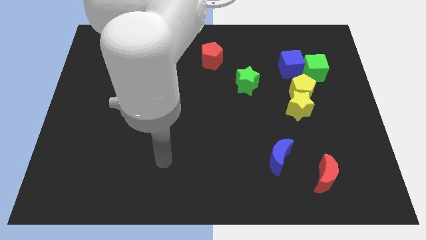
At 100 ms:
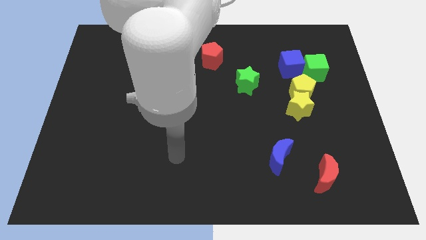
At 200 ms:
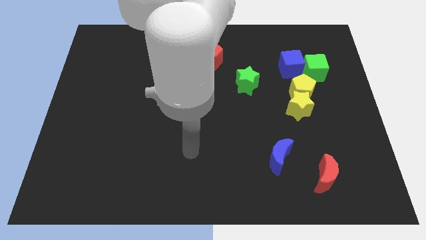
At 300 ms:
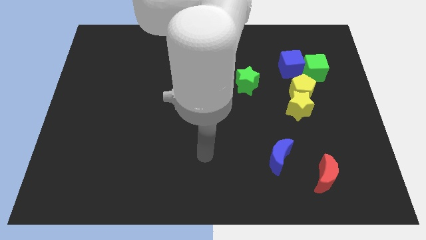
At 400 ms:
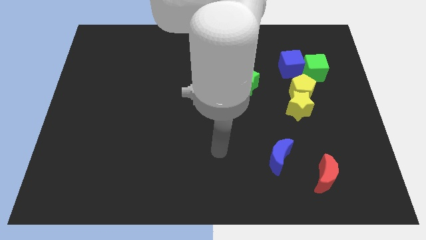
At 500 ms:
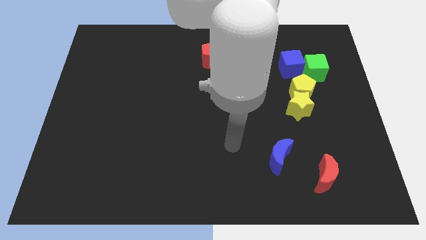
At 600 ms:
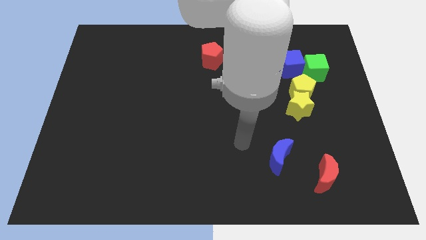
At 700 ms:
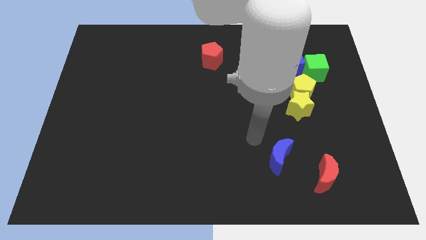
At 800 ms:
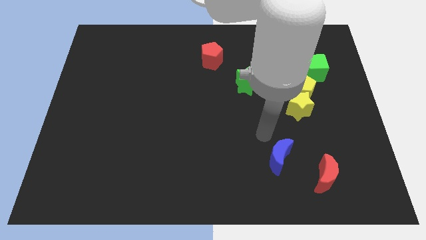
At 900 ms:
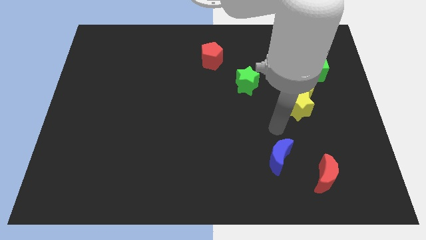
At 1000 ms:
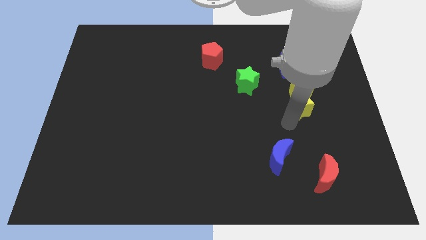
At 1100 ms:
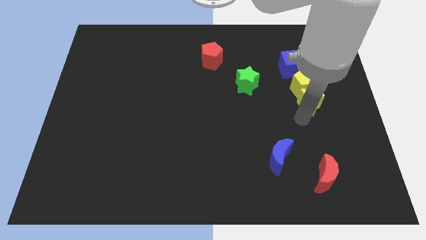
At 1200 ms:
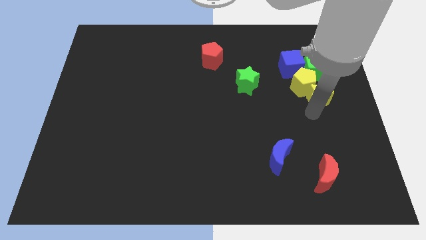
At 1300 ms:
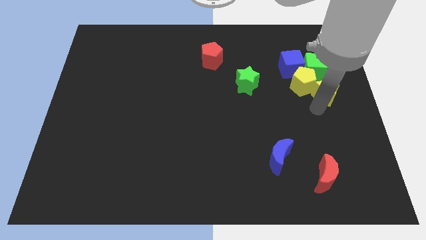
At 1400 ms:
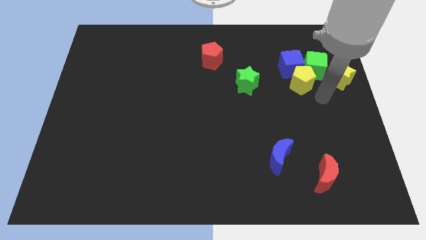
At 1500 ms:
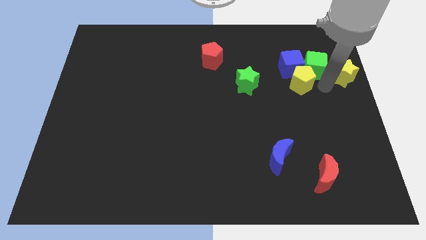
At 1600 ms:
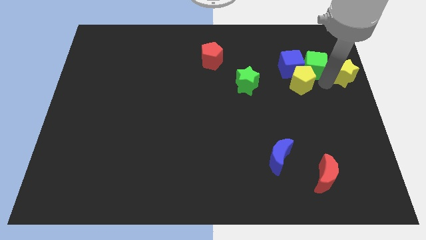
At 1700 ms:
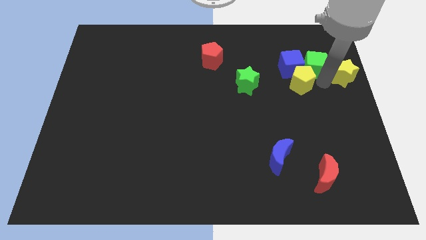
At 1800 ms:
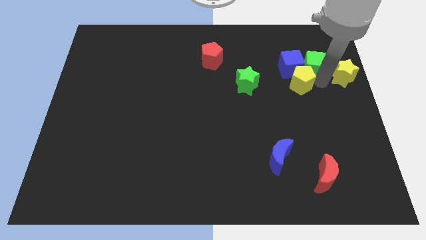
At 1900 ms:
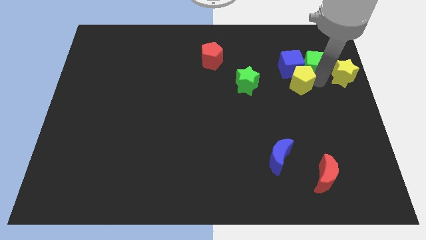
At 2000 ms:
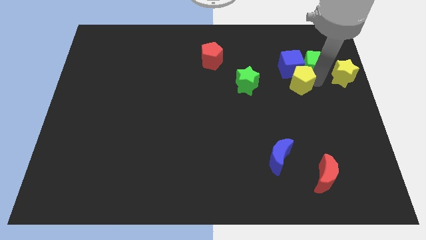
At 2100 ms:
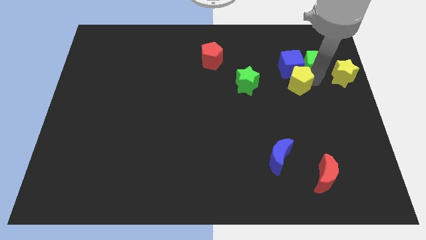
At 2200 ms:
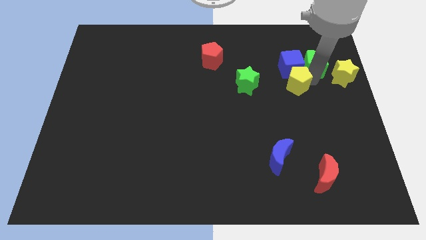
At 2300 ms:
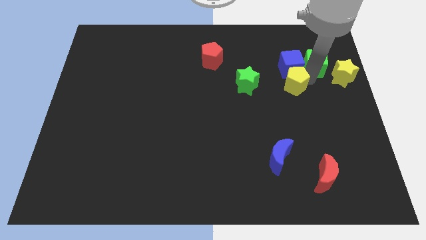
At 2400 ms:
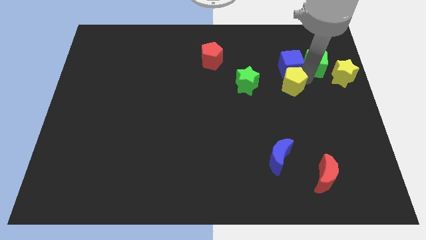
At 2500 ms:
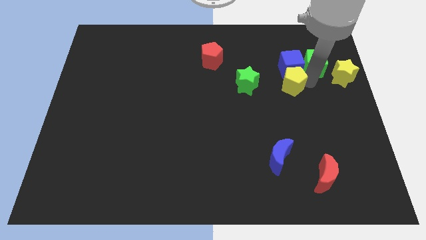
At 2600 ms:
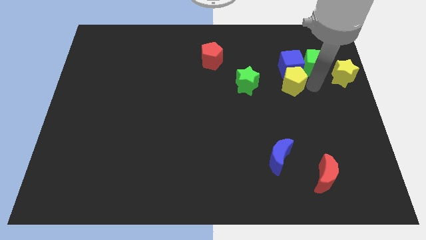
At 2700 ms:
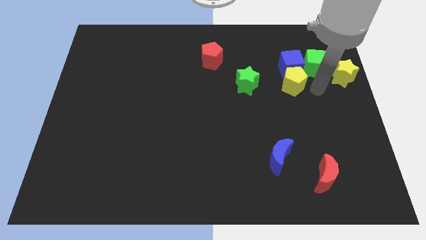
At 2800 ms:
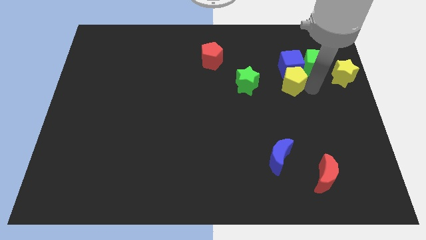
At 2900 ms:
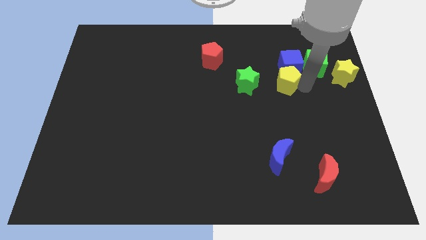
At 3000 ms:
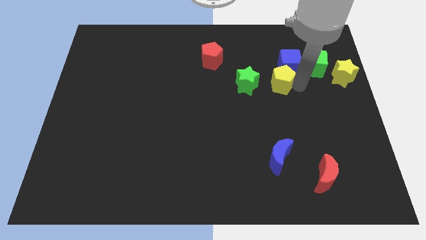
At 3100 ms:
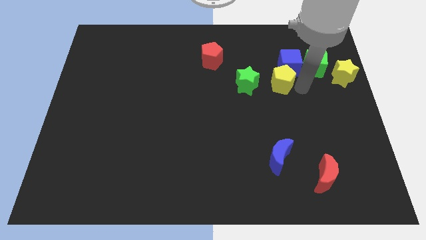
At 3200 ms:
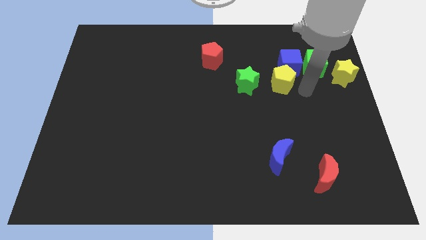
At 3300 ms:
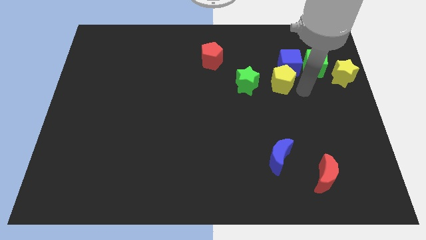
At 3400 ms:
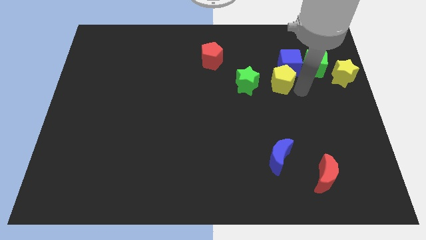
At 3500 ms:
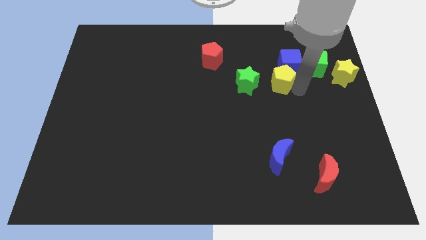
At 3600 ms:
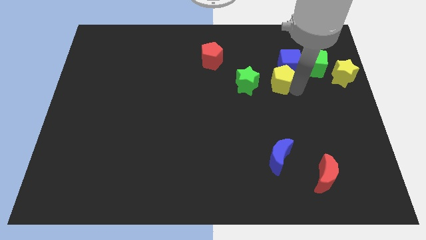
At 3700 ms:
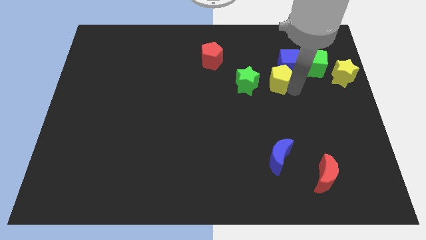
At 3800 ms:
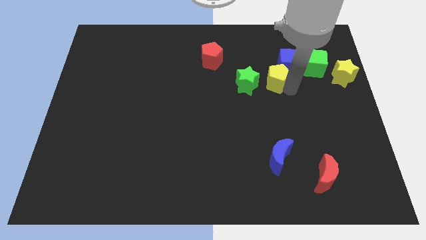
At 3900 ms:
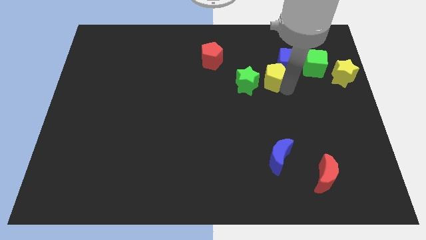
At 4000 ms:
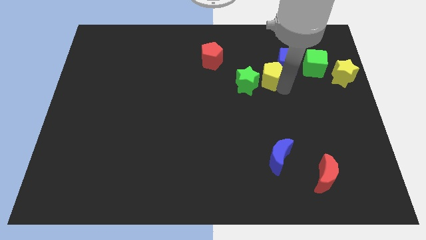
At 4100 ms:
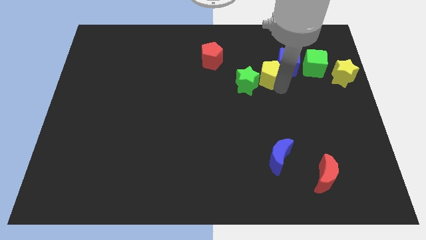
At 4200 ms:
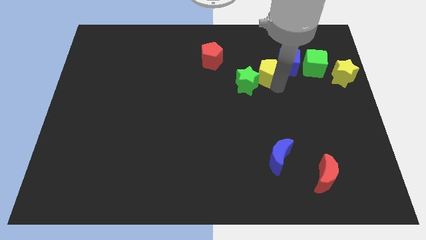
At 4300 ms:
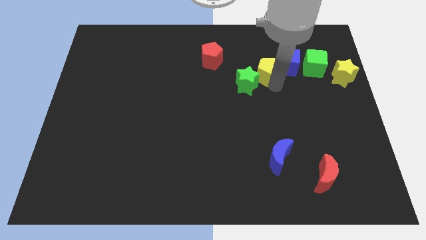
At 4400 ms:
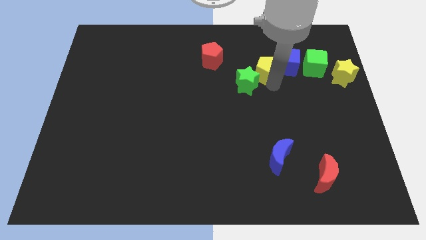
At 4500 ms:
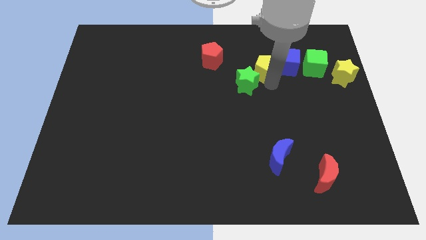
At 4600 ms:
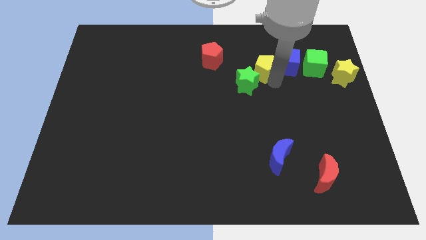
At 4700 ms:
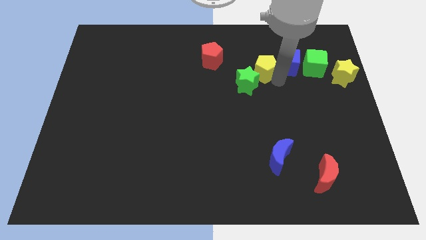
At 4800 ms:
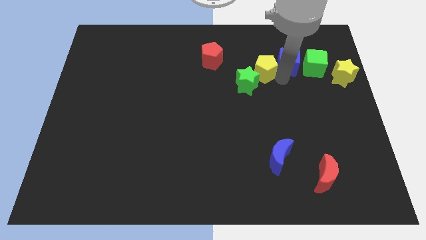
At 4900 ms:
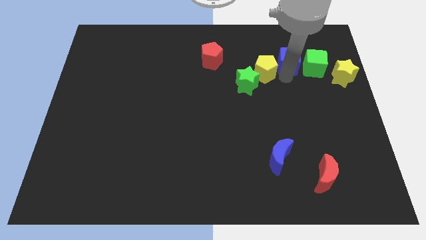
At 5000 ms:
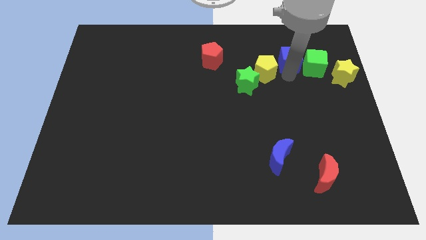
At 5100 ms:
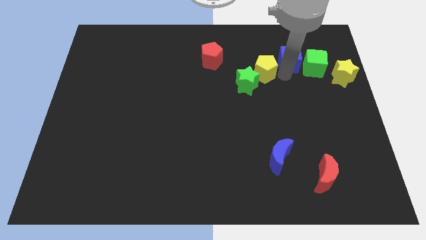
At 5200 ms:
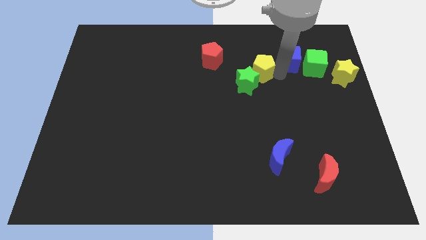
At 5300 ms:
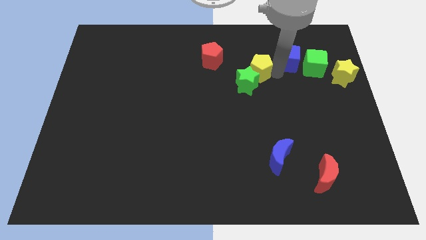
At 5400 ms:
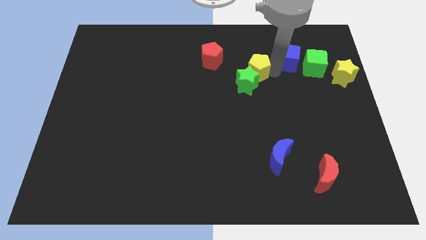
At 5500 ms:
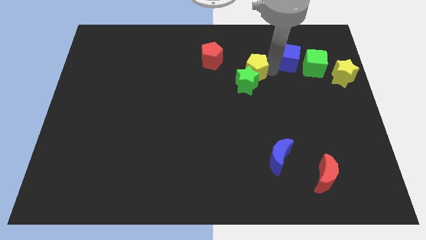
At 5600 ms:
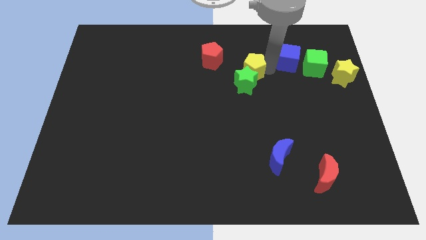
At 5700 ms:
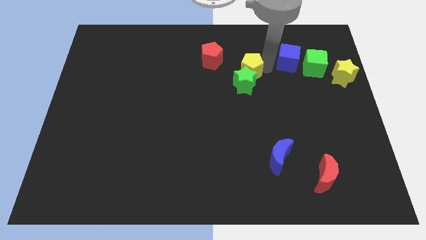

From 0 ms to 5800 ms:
move the yellow pentagon to the bottom right of the red pentagon
